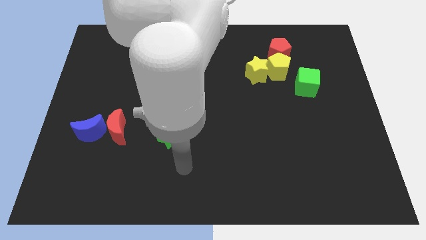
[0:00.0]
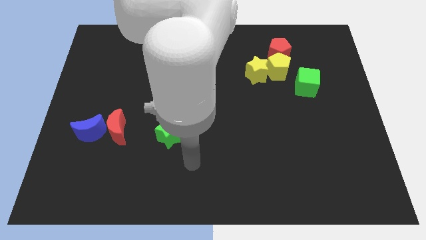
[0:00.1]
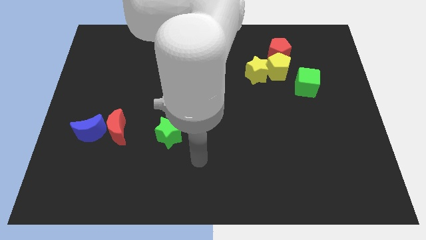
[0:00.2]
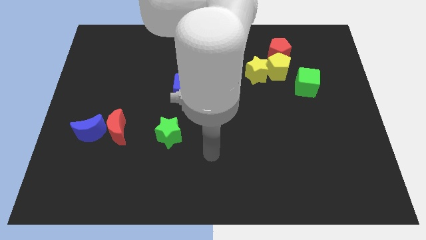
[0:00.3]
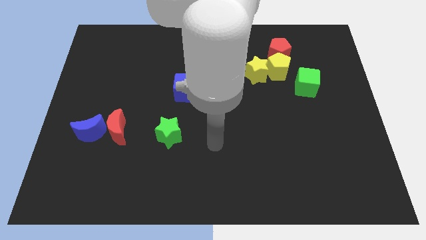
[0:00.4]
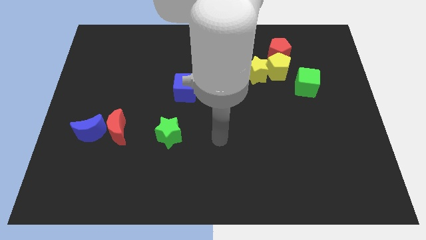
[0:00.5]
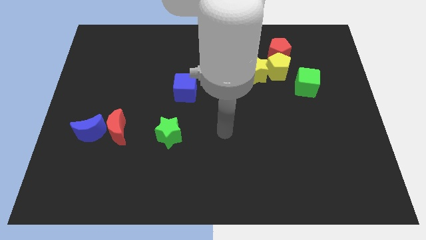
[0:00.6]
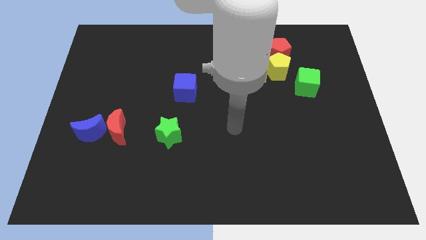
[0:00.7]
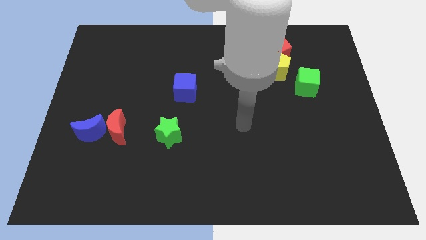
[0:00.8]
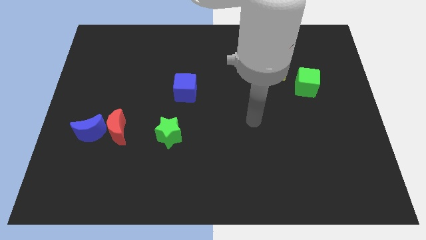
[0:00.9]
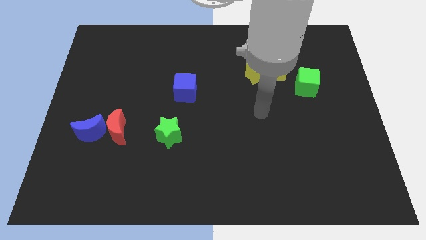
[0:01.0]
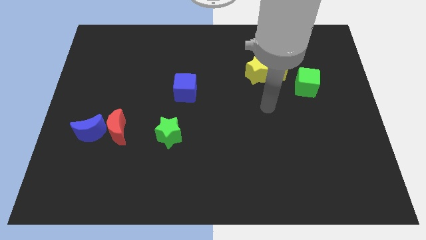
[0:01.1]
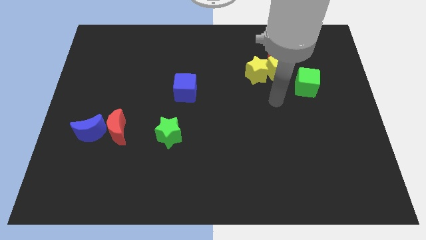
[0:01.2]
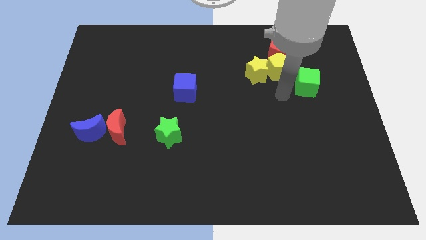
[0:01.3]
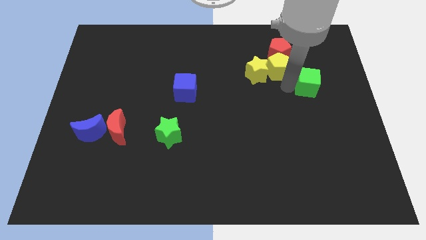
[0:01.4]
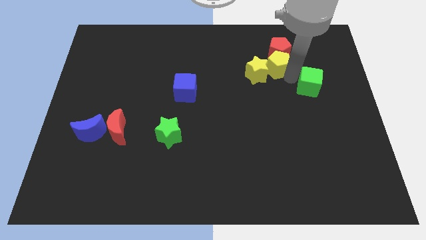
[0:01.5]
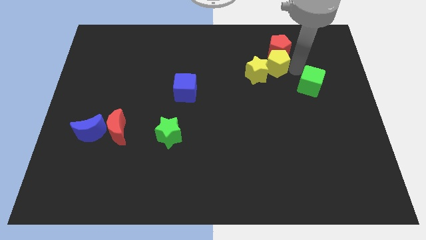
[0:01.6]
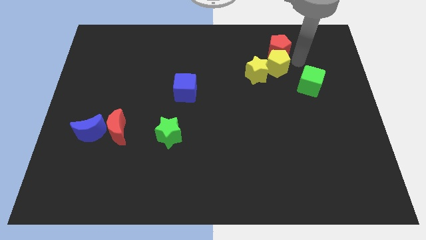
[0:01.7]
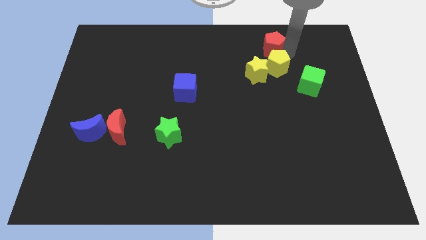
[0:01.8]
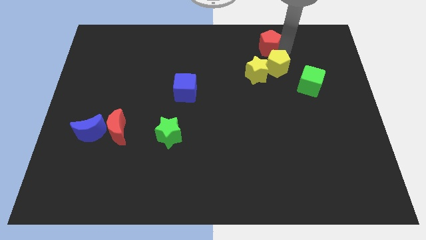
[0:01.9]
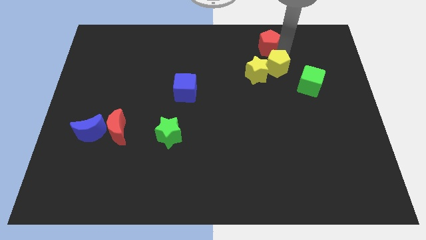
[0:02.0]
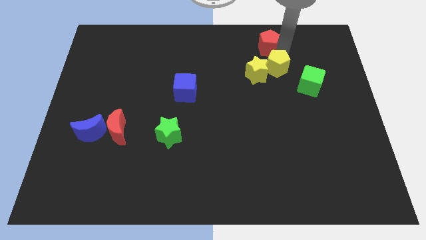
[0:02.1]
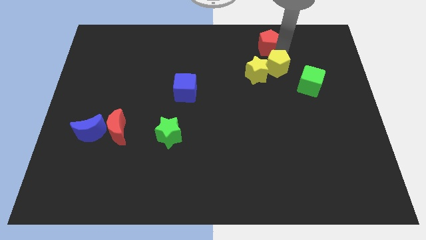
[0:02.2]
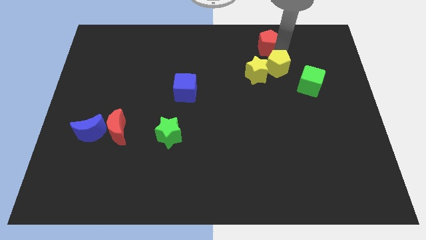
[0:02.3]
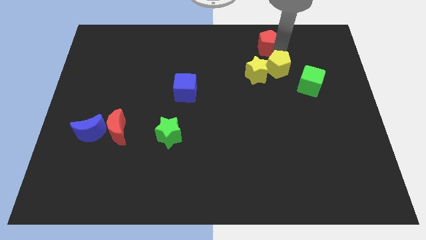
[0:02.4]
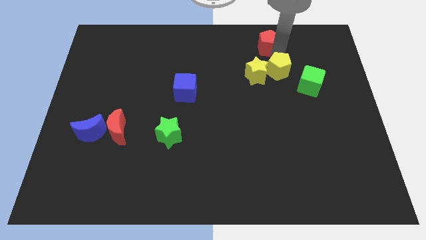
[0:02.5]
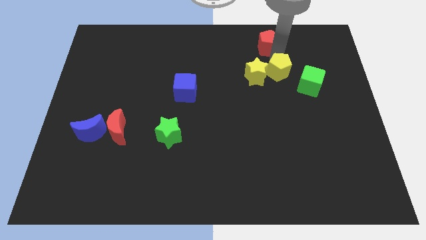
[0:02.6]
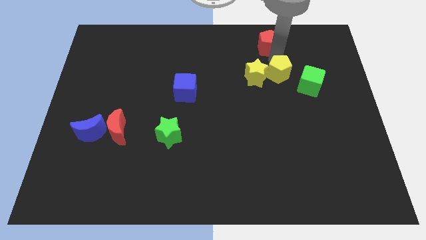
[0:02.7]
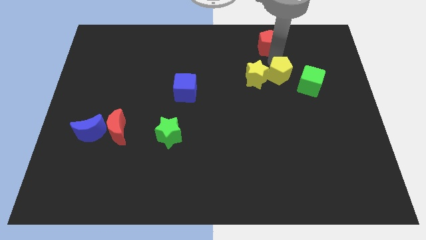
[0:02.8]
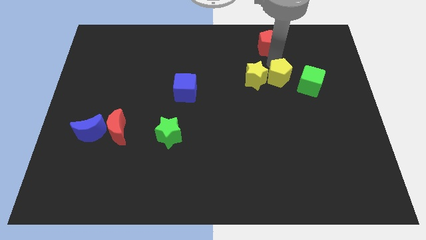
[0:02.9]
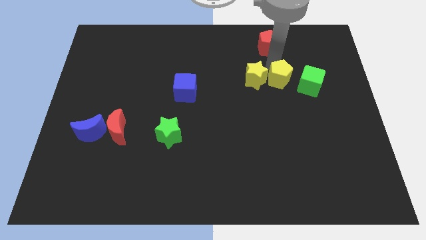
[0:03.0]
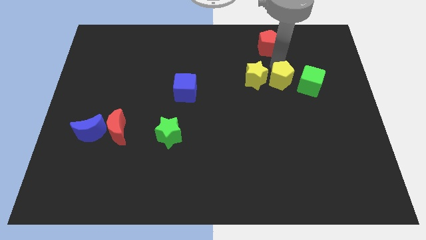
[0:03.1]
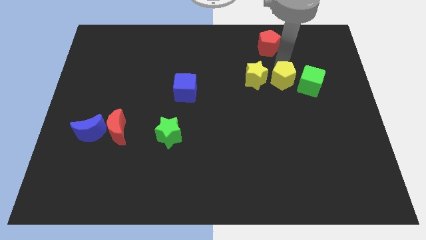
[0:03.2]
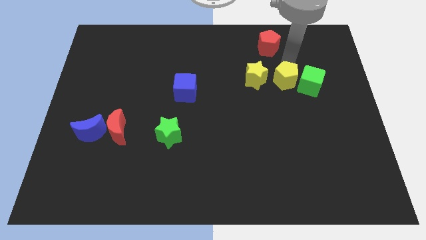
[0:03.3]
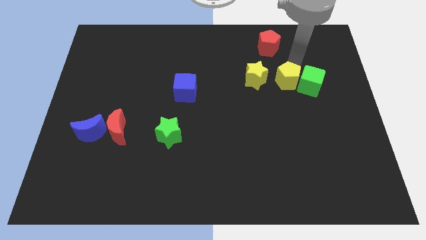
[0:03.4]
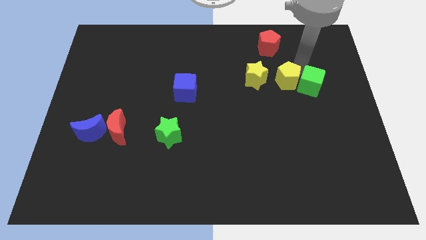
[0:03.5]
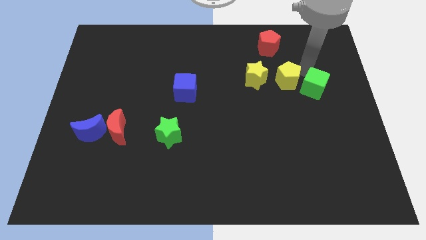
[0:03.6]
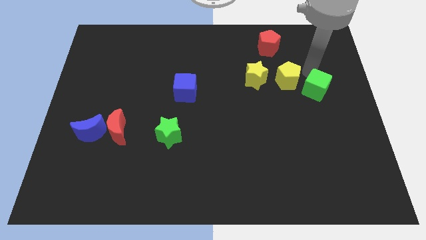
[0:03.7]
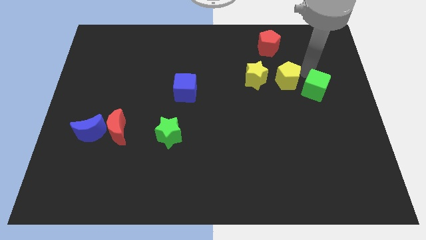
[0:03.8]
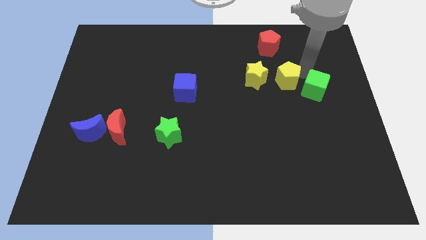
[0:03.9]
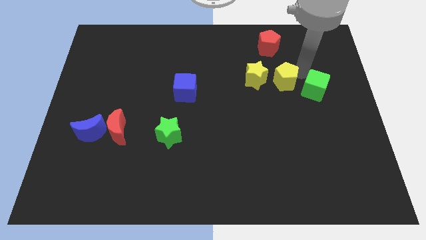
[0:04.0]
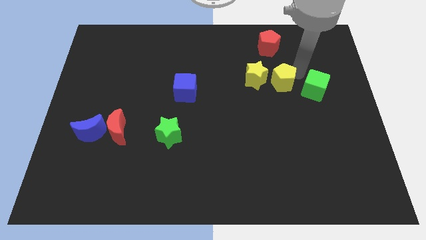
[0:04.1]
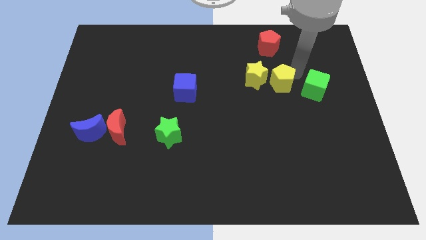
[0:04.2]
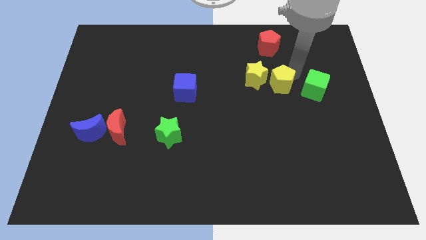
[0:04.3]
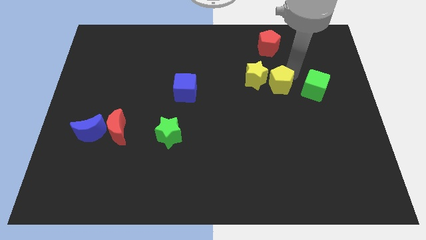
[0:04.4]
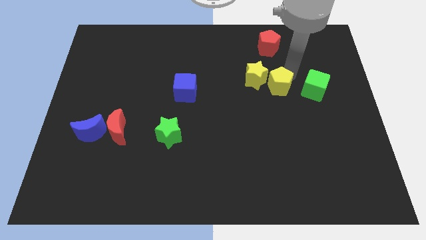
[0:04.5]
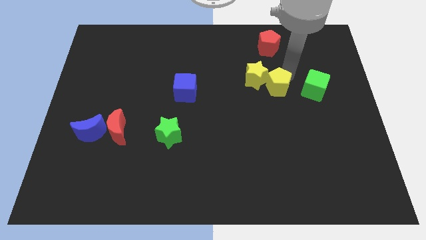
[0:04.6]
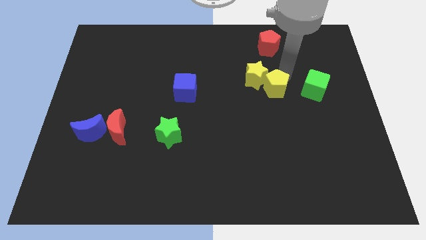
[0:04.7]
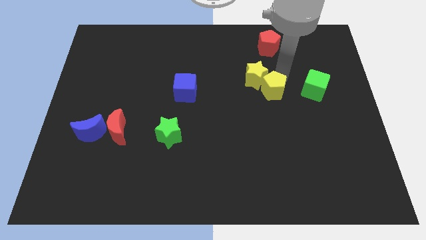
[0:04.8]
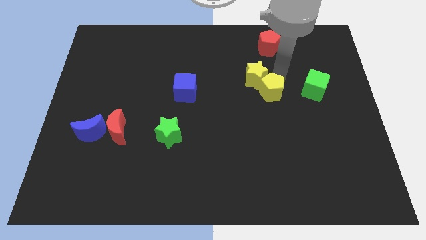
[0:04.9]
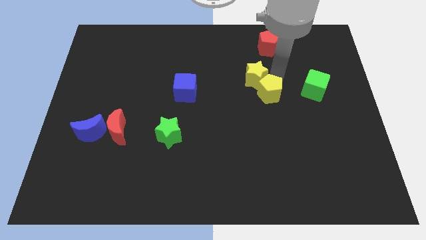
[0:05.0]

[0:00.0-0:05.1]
slightly push the yellow pentagon downwards and left

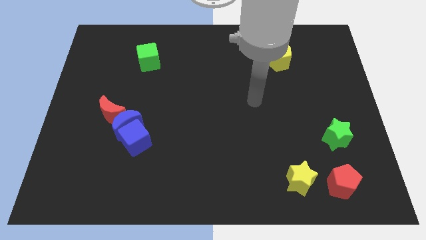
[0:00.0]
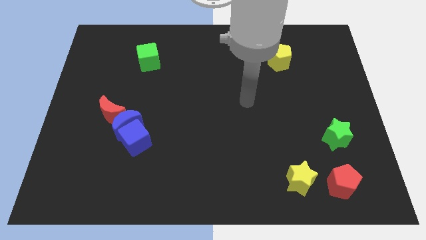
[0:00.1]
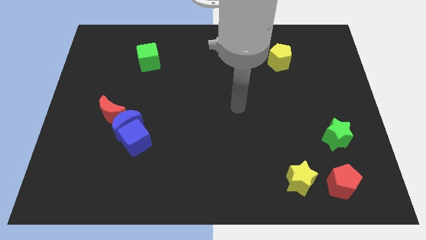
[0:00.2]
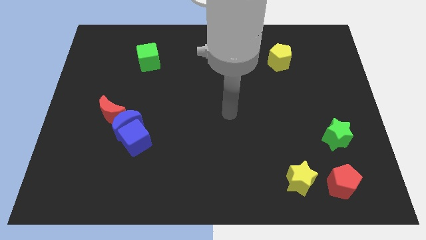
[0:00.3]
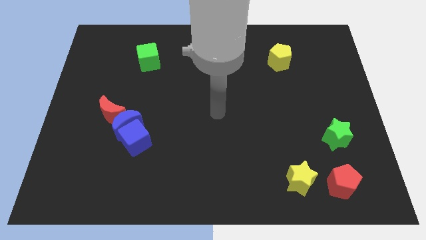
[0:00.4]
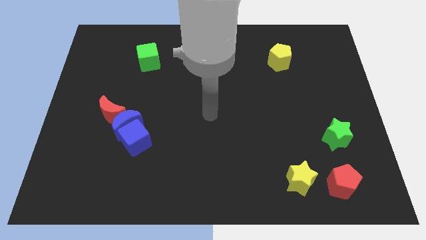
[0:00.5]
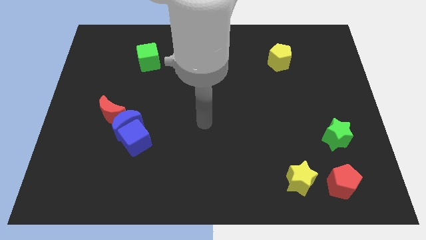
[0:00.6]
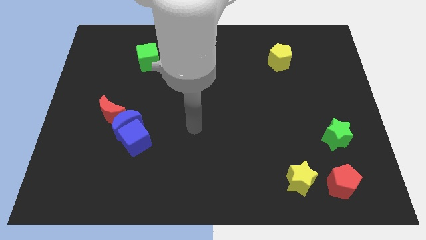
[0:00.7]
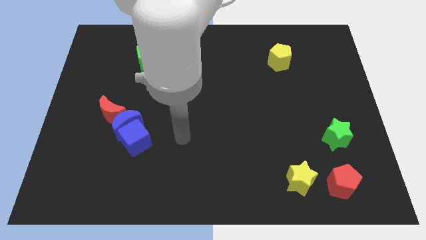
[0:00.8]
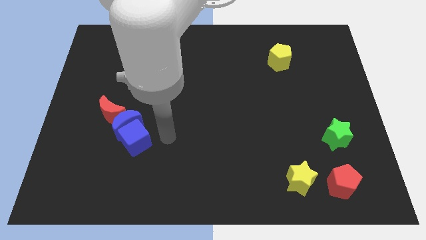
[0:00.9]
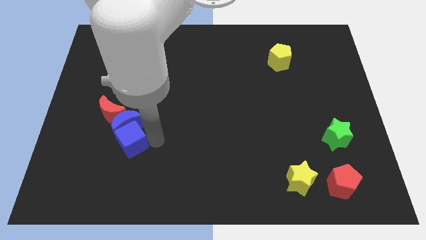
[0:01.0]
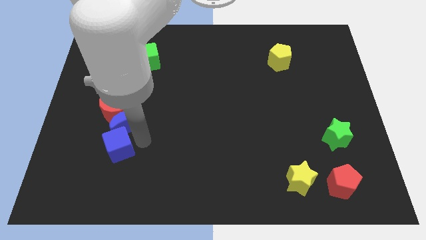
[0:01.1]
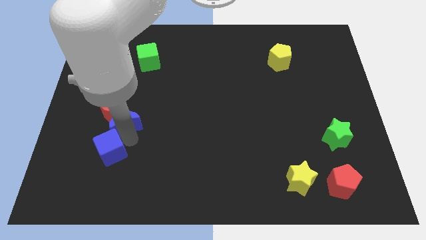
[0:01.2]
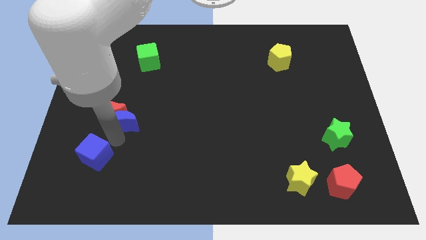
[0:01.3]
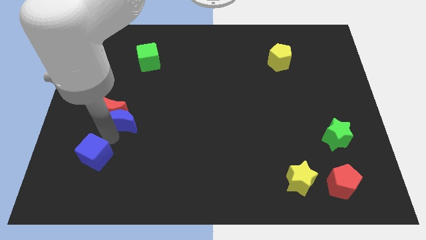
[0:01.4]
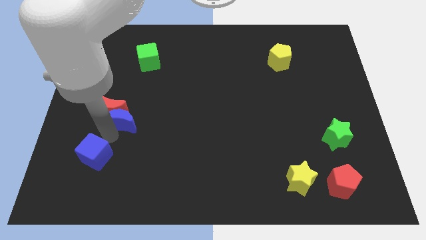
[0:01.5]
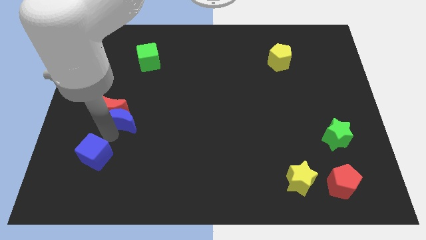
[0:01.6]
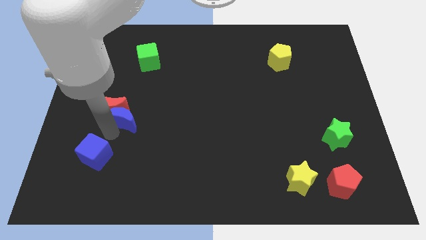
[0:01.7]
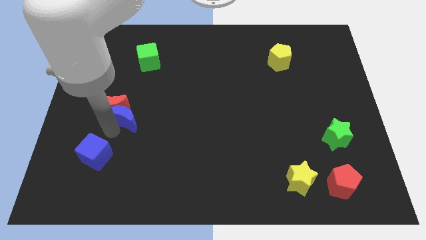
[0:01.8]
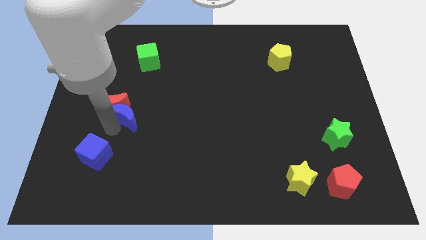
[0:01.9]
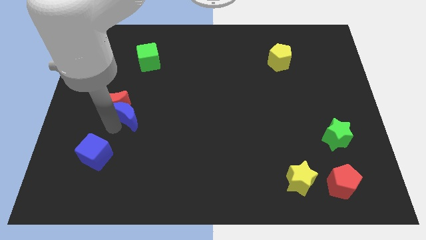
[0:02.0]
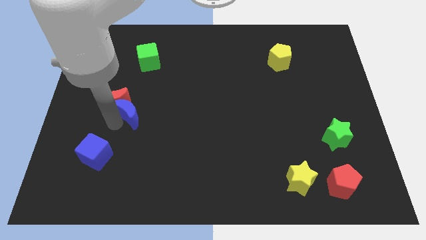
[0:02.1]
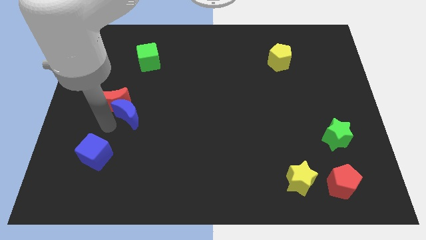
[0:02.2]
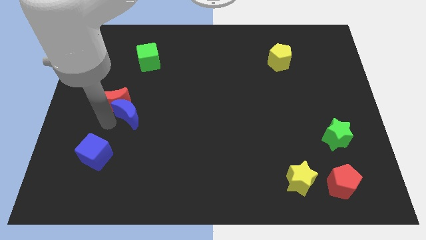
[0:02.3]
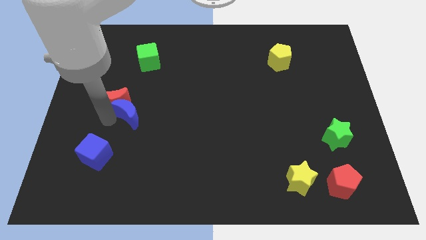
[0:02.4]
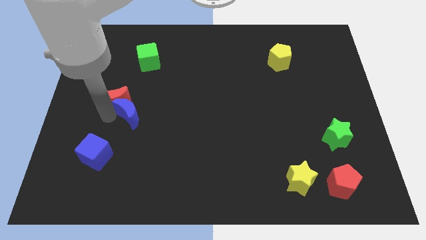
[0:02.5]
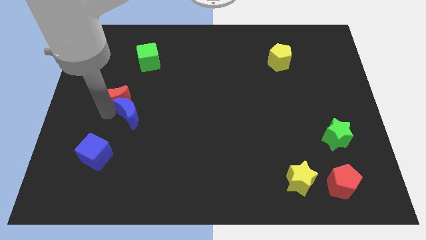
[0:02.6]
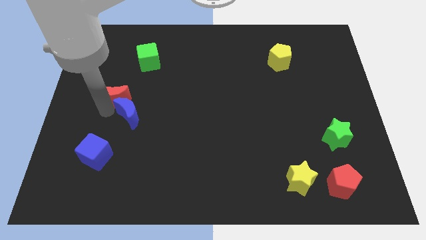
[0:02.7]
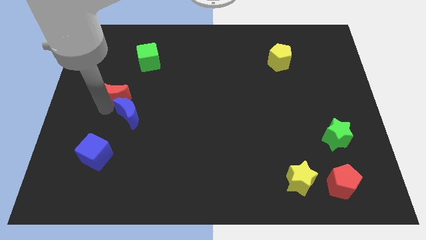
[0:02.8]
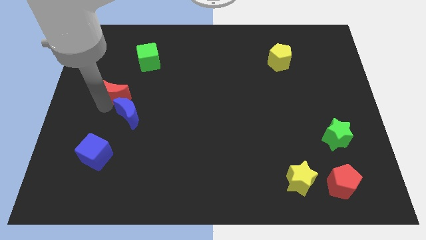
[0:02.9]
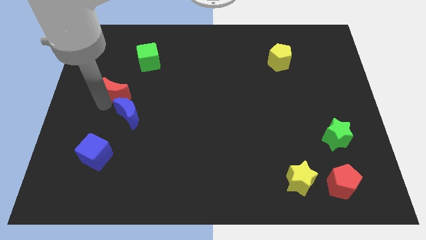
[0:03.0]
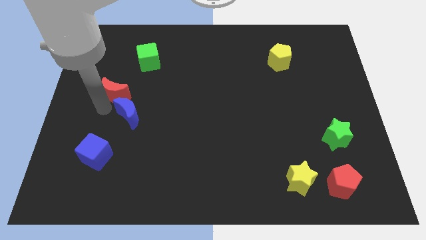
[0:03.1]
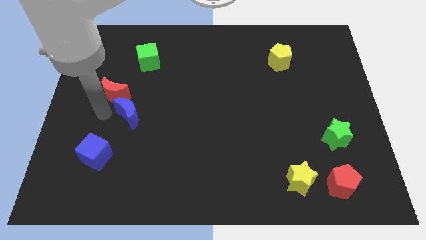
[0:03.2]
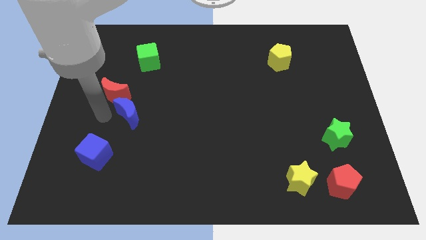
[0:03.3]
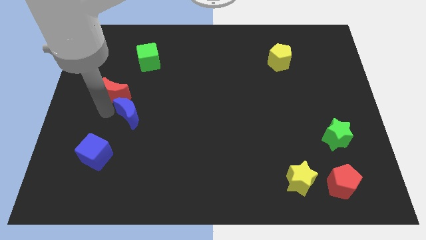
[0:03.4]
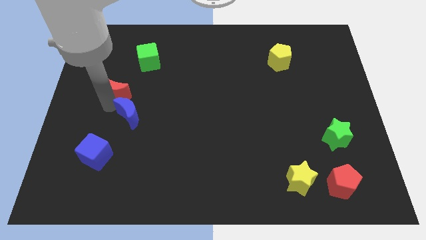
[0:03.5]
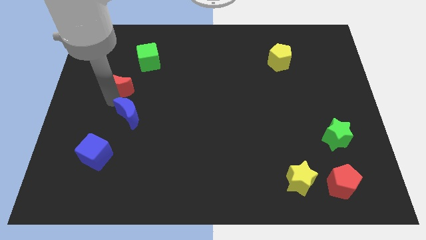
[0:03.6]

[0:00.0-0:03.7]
push the red moon a little up
